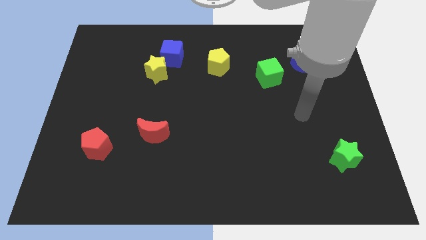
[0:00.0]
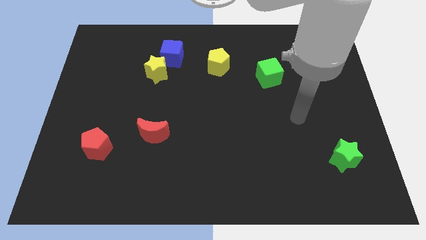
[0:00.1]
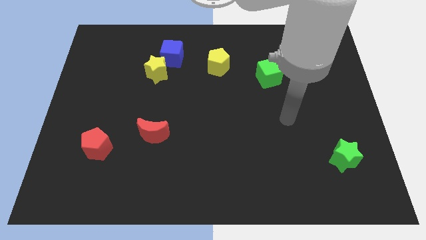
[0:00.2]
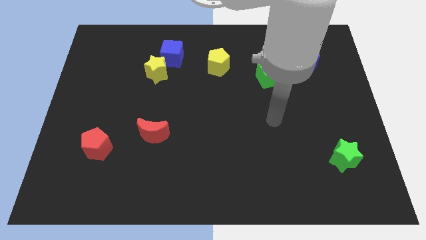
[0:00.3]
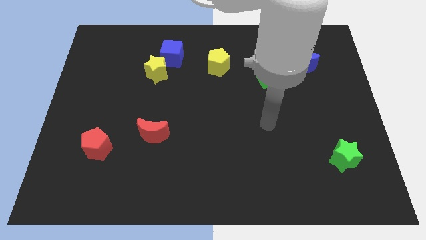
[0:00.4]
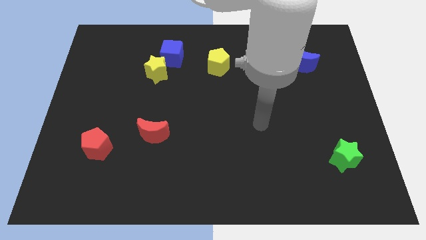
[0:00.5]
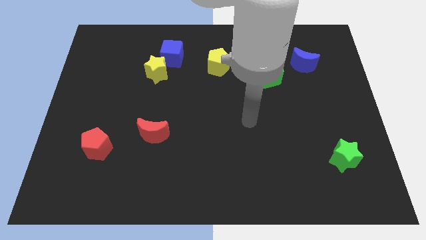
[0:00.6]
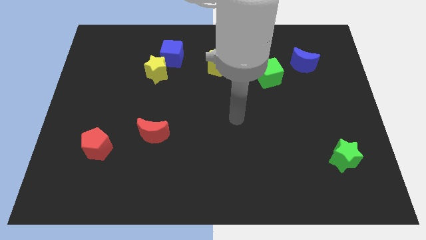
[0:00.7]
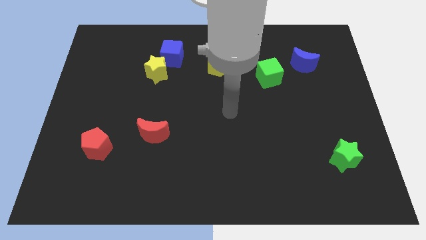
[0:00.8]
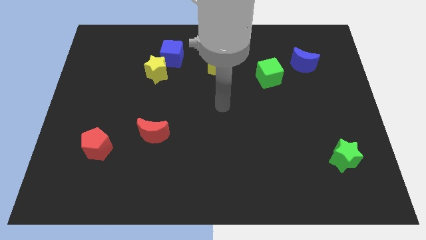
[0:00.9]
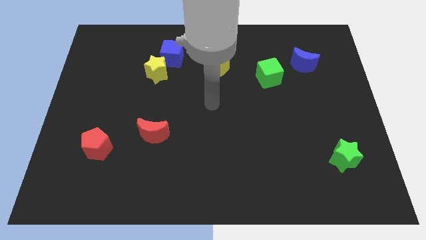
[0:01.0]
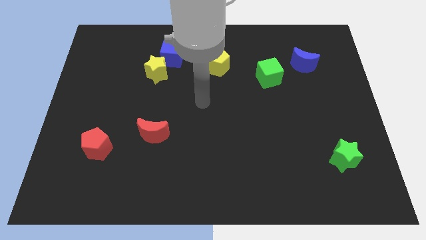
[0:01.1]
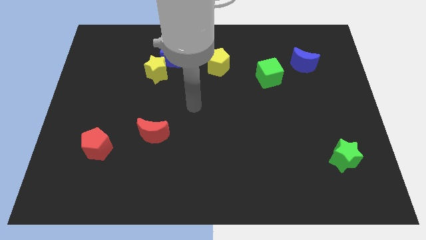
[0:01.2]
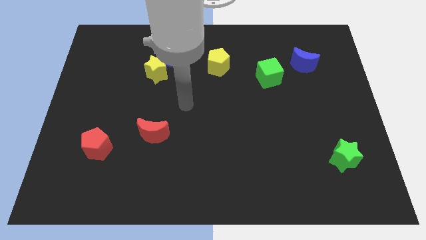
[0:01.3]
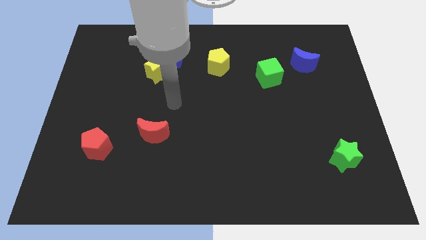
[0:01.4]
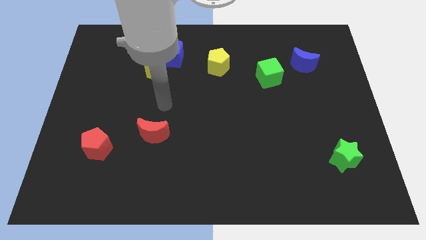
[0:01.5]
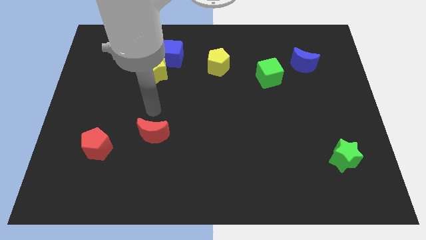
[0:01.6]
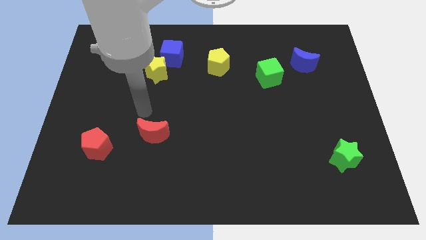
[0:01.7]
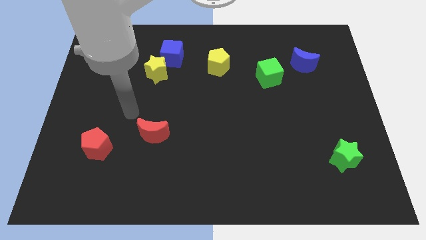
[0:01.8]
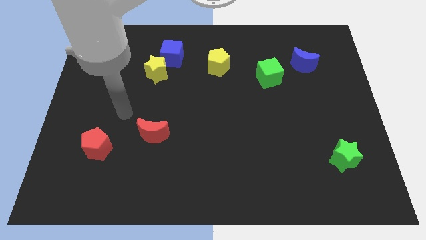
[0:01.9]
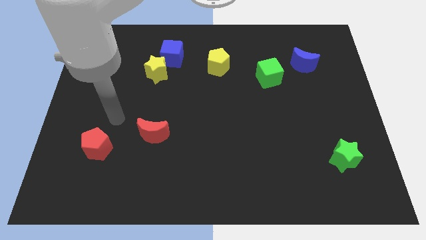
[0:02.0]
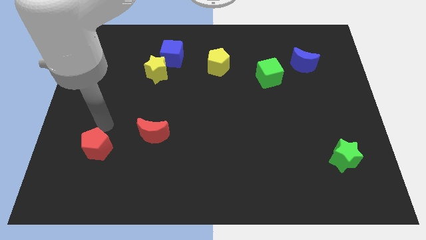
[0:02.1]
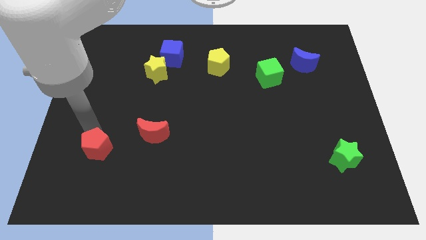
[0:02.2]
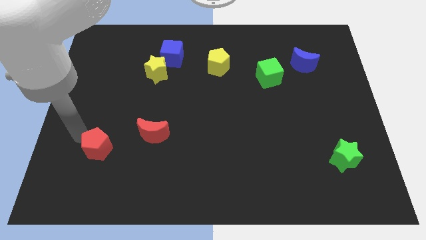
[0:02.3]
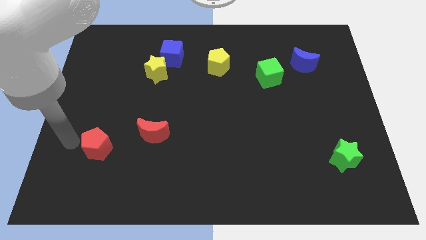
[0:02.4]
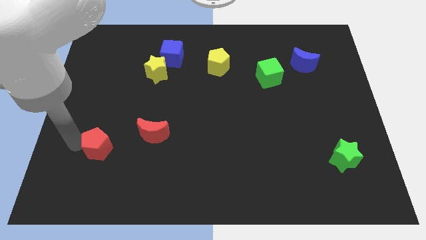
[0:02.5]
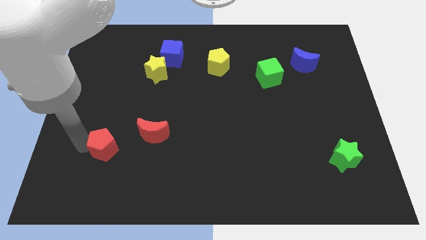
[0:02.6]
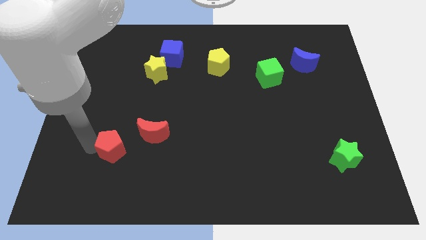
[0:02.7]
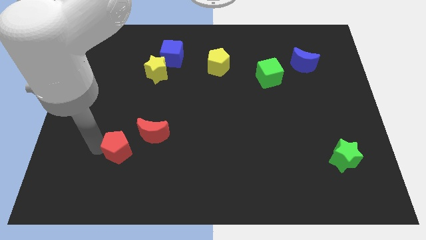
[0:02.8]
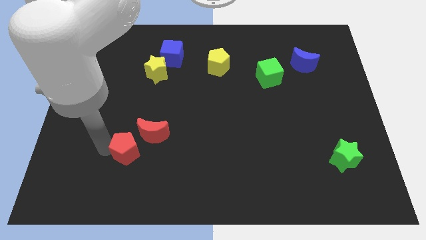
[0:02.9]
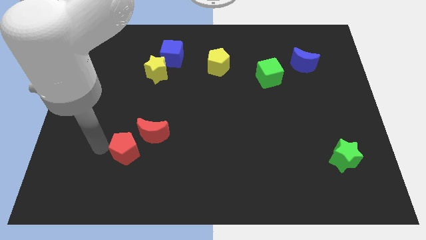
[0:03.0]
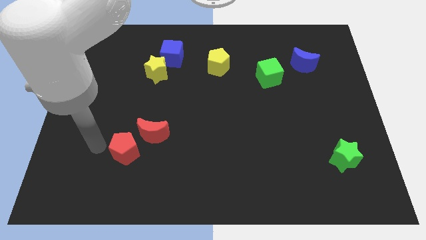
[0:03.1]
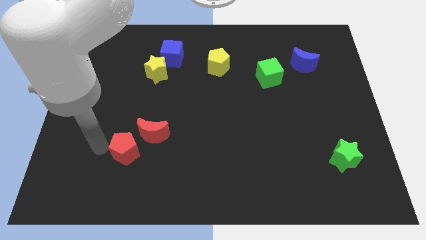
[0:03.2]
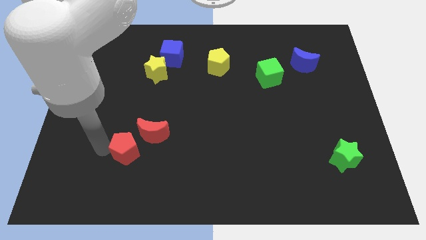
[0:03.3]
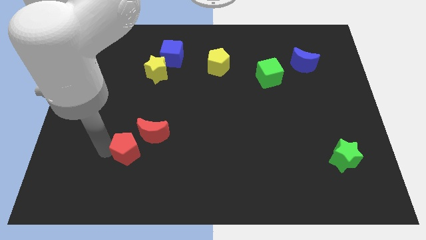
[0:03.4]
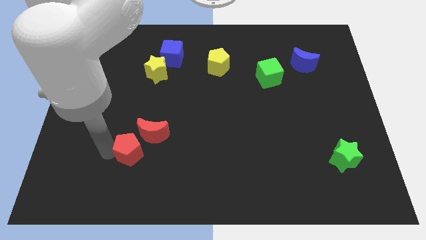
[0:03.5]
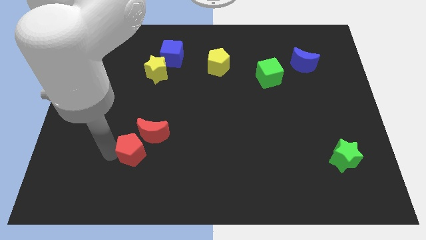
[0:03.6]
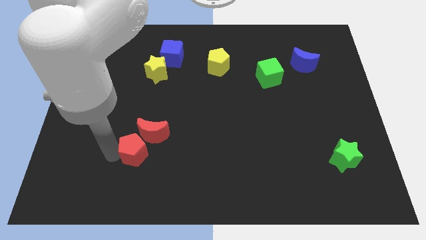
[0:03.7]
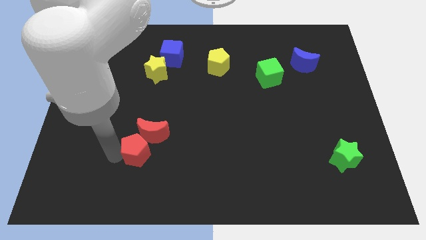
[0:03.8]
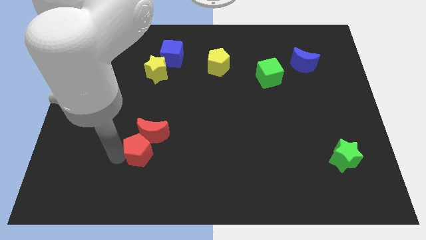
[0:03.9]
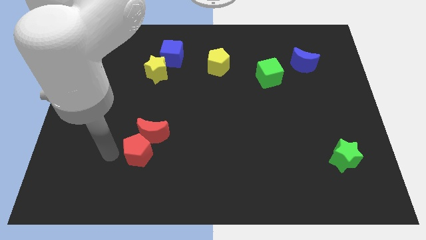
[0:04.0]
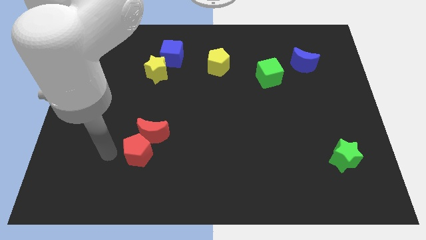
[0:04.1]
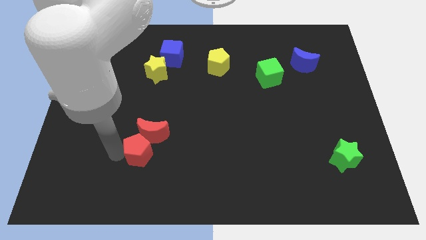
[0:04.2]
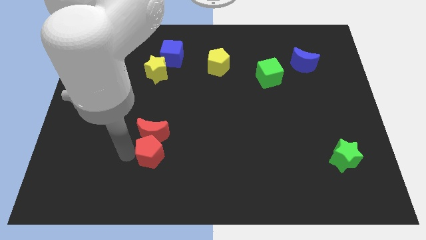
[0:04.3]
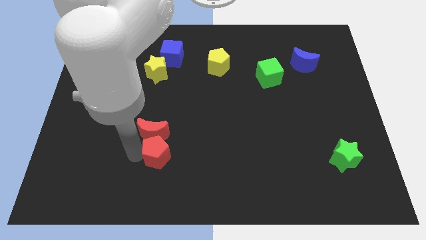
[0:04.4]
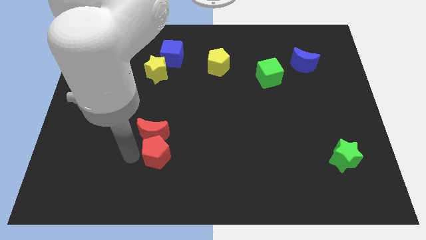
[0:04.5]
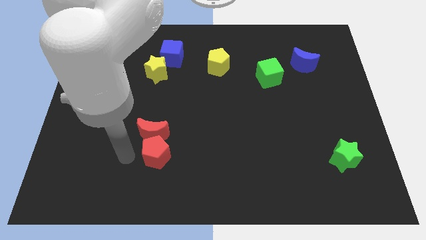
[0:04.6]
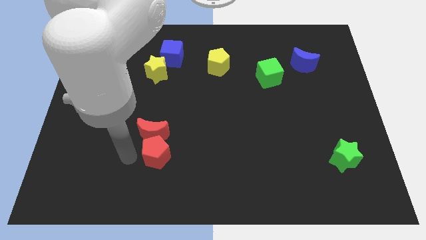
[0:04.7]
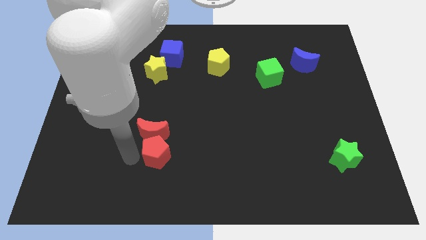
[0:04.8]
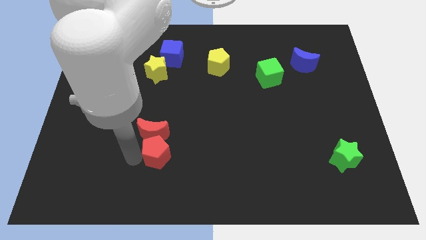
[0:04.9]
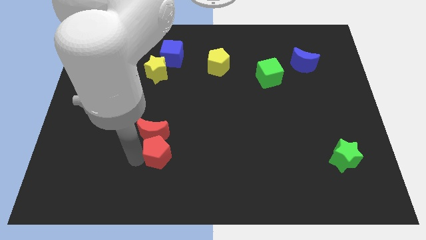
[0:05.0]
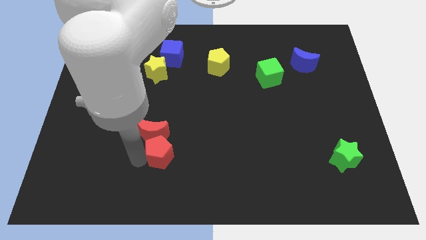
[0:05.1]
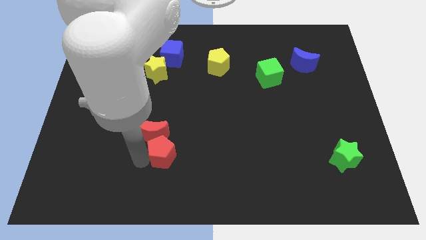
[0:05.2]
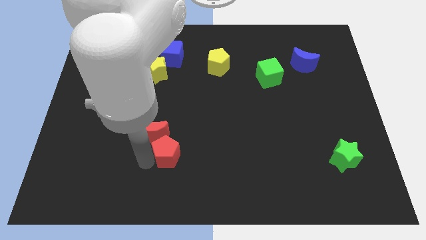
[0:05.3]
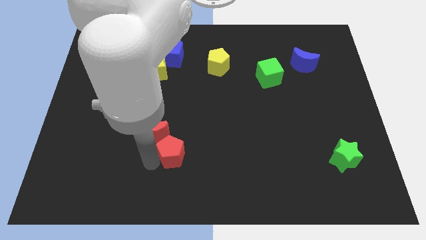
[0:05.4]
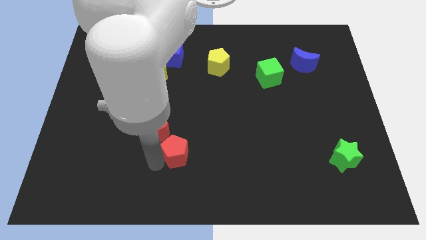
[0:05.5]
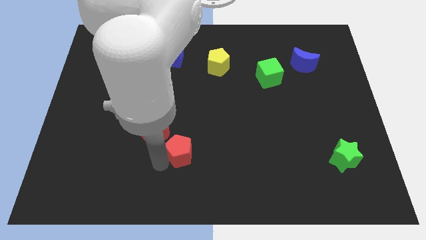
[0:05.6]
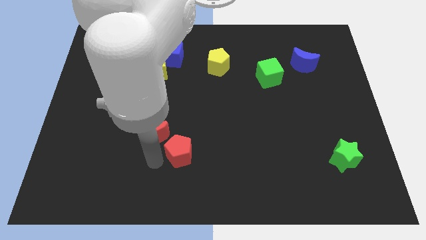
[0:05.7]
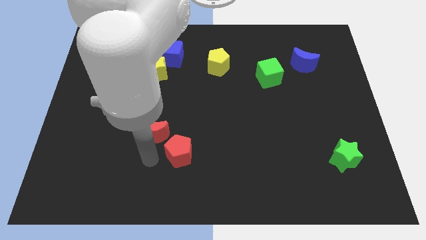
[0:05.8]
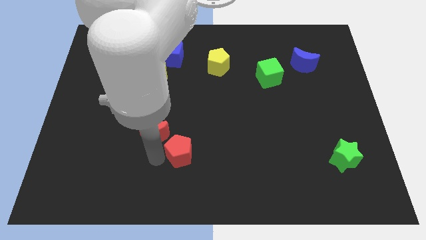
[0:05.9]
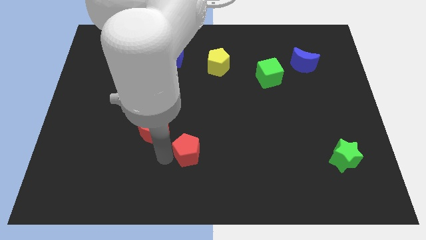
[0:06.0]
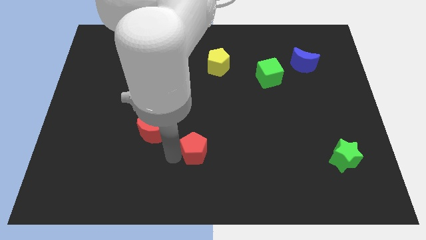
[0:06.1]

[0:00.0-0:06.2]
slide the red pentagon right

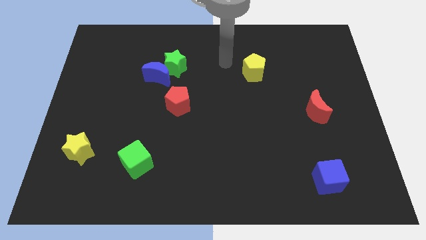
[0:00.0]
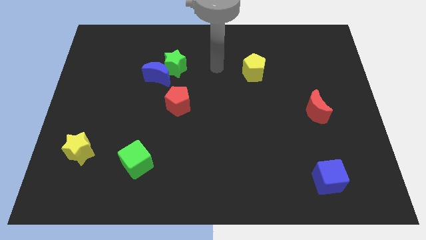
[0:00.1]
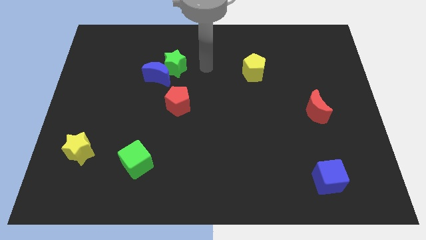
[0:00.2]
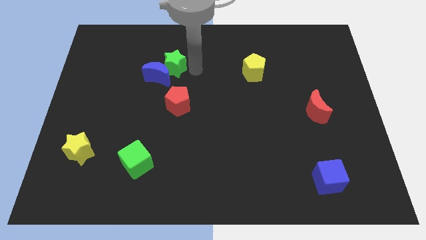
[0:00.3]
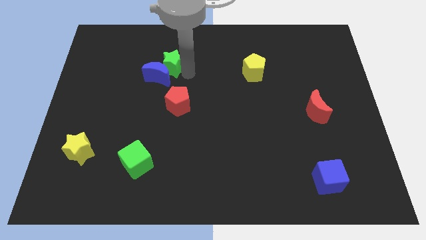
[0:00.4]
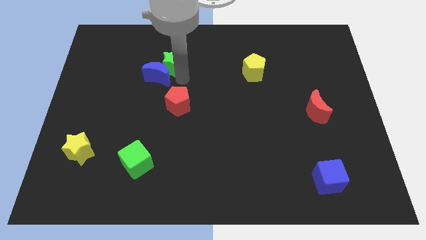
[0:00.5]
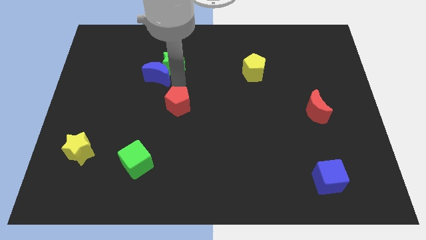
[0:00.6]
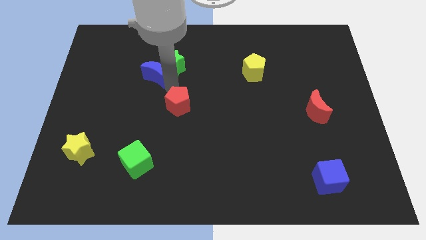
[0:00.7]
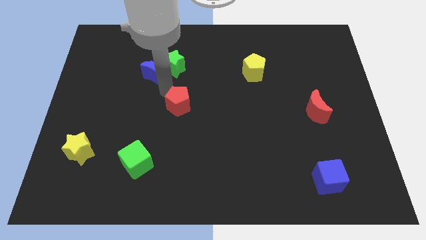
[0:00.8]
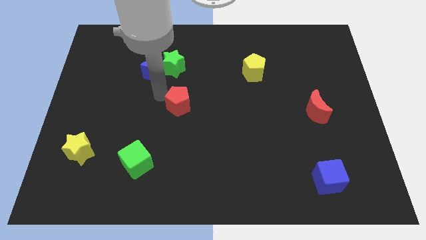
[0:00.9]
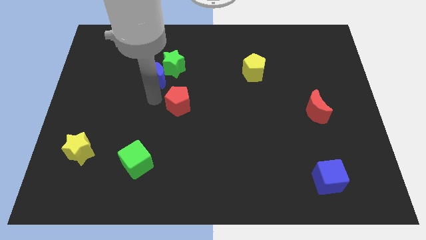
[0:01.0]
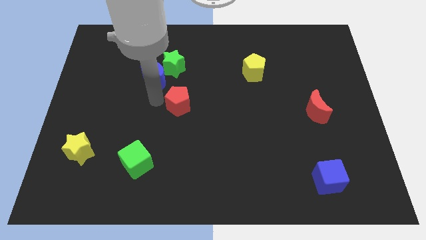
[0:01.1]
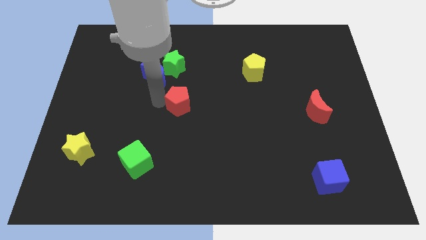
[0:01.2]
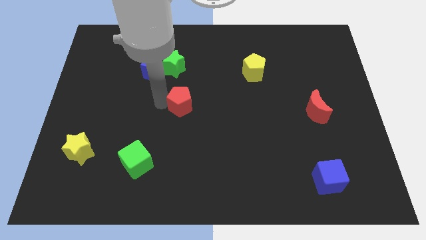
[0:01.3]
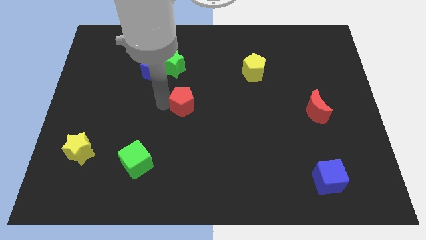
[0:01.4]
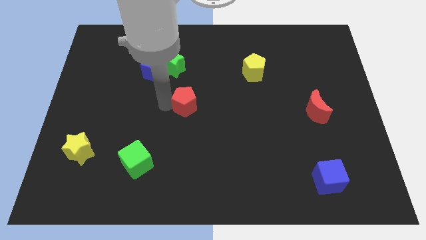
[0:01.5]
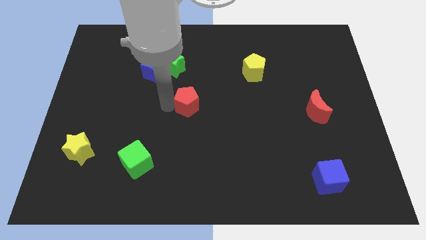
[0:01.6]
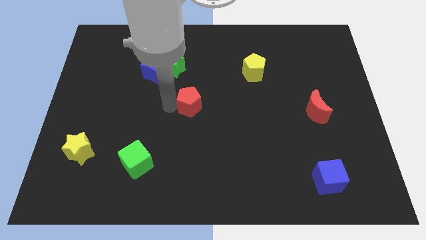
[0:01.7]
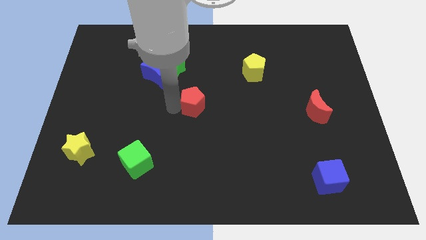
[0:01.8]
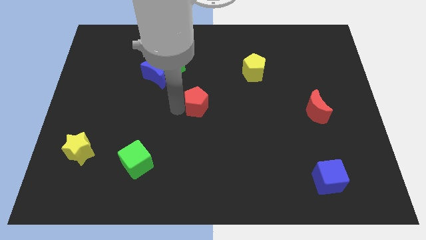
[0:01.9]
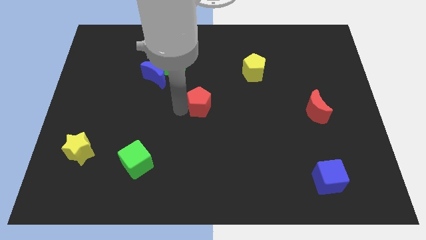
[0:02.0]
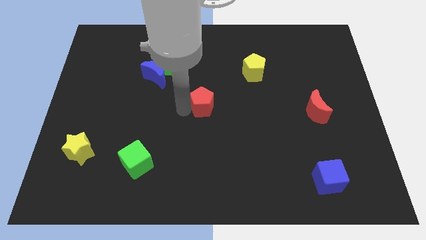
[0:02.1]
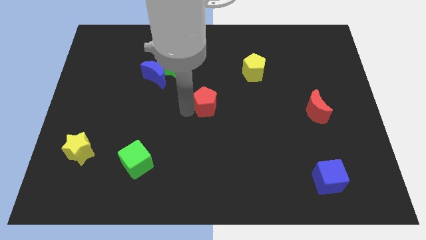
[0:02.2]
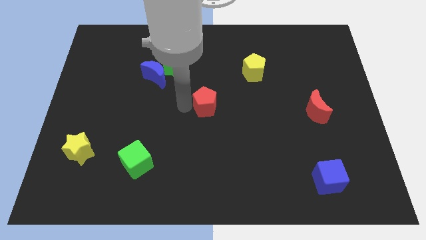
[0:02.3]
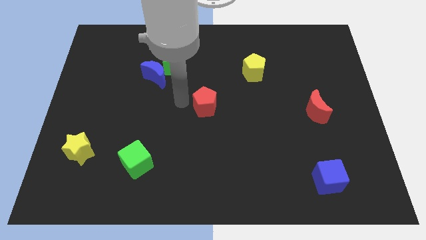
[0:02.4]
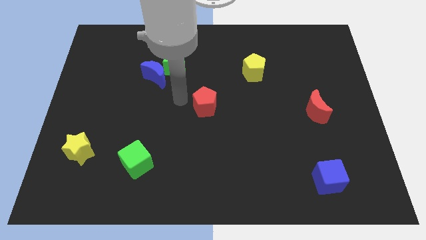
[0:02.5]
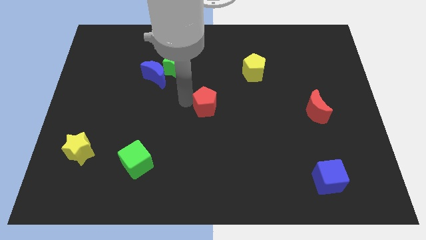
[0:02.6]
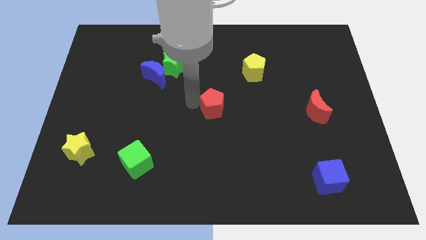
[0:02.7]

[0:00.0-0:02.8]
push the red pentagon a little right
